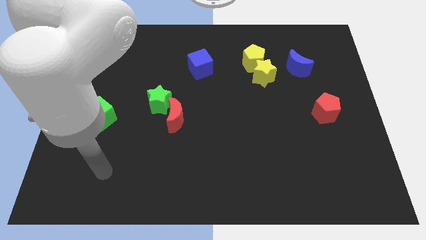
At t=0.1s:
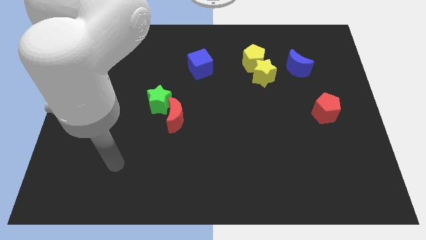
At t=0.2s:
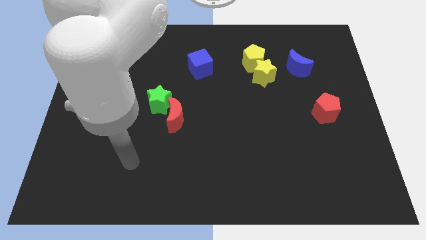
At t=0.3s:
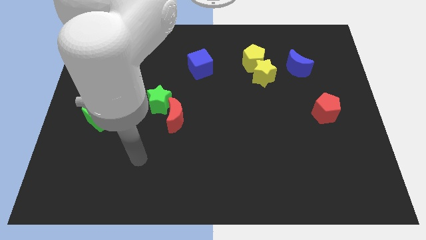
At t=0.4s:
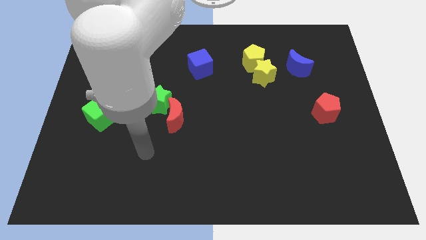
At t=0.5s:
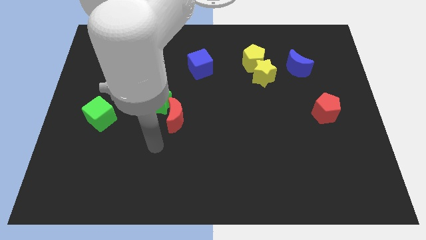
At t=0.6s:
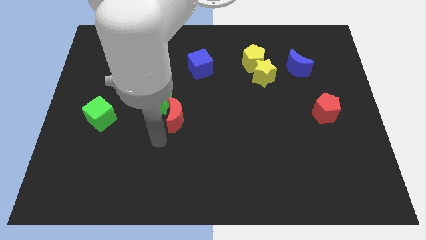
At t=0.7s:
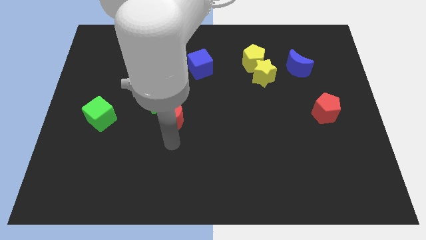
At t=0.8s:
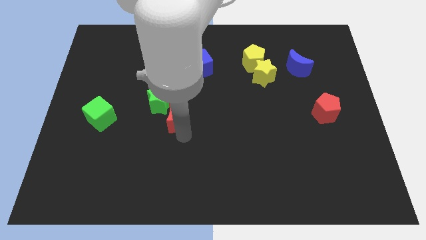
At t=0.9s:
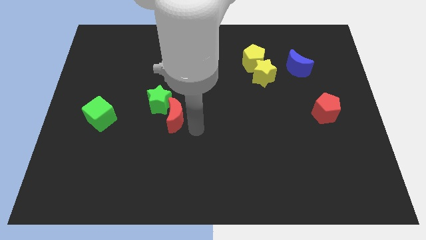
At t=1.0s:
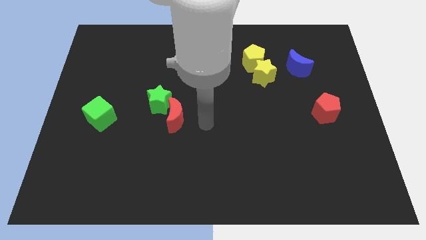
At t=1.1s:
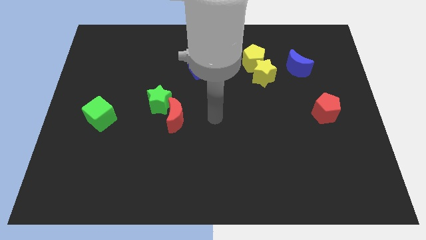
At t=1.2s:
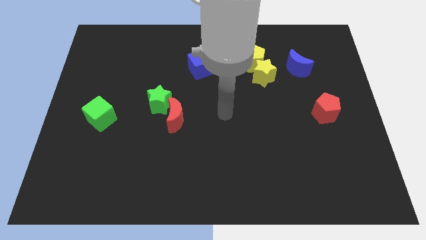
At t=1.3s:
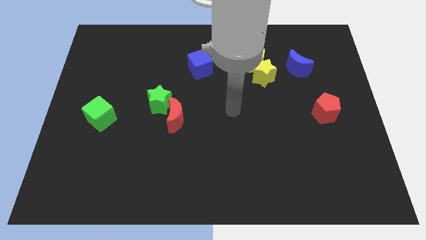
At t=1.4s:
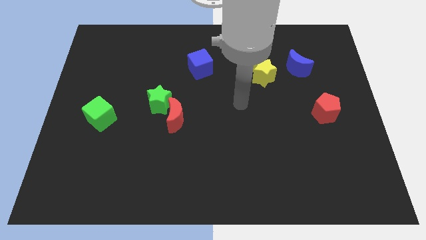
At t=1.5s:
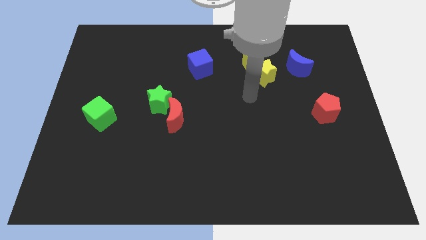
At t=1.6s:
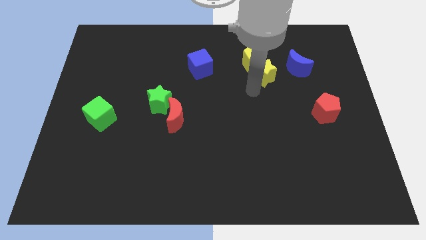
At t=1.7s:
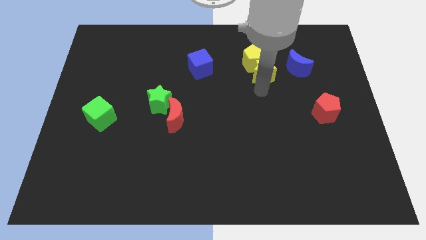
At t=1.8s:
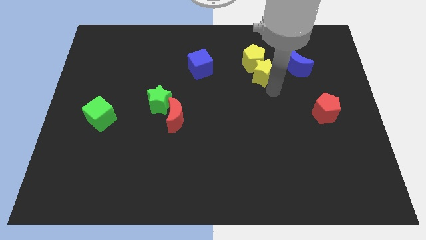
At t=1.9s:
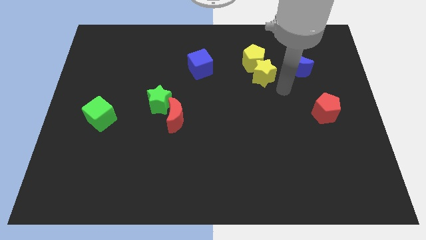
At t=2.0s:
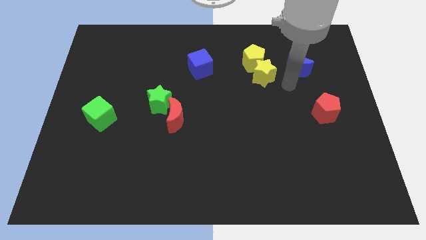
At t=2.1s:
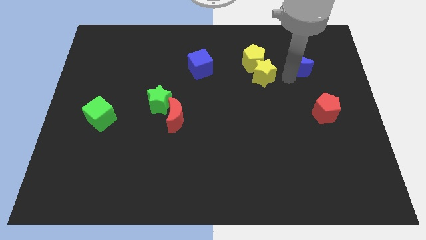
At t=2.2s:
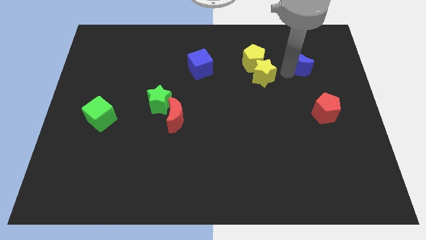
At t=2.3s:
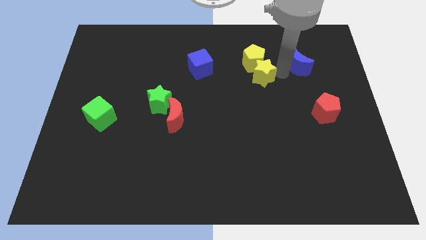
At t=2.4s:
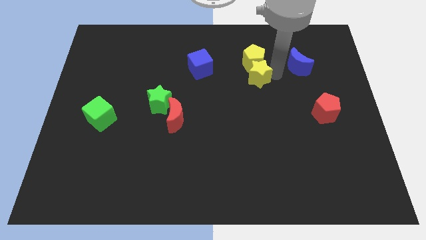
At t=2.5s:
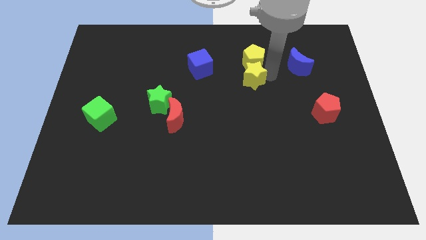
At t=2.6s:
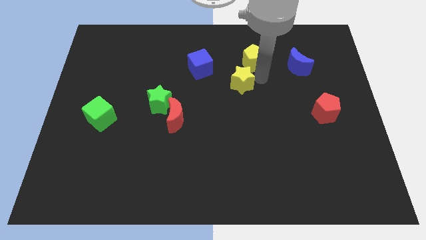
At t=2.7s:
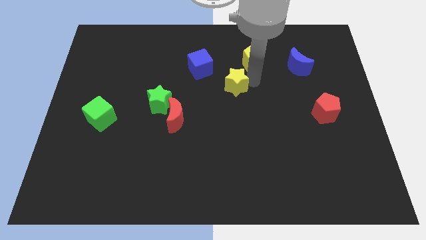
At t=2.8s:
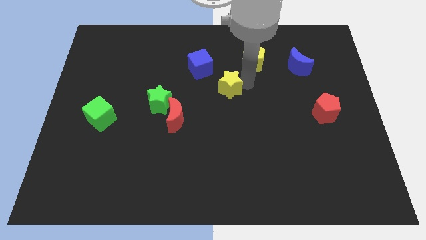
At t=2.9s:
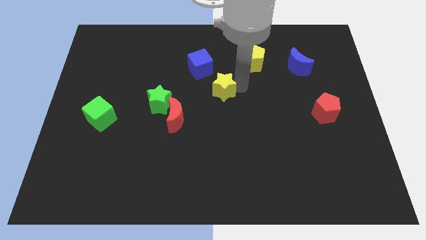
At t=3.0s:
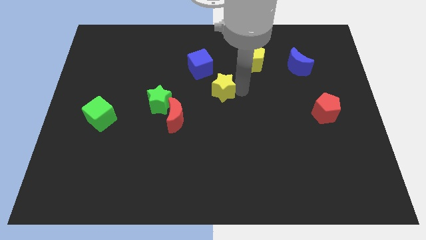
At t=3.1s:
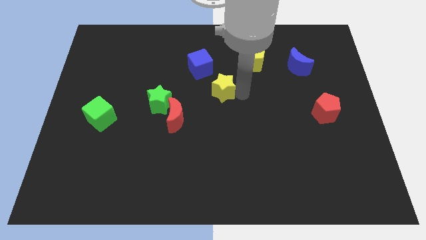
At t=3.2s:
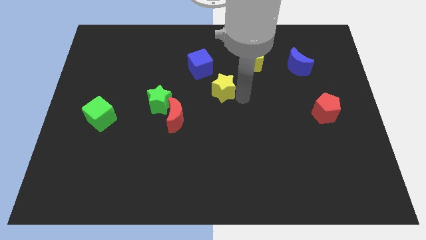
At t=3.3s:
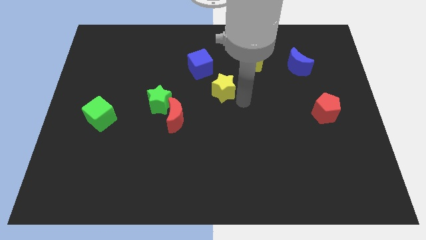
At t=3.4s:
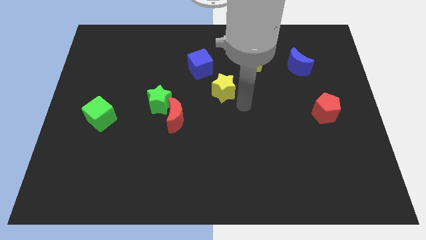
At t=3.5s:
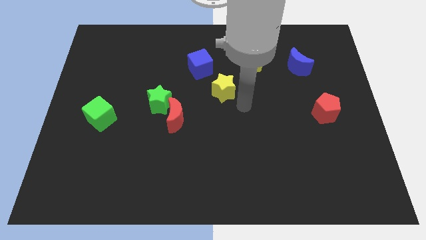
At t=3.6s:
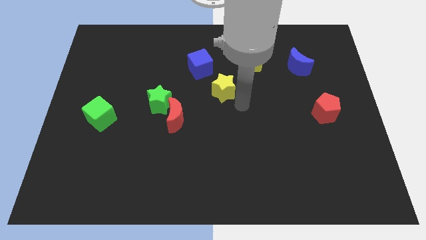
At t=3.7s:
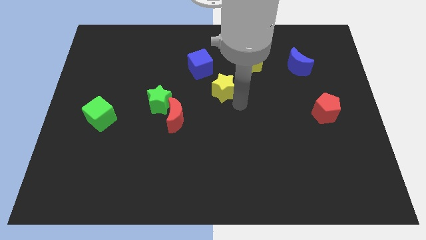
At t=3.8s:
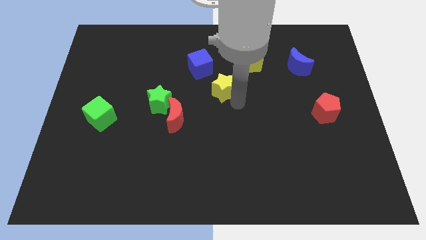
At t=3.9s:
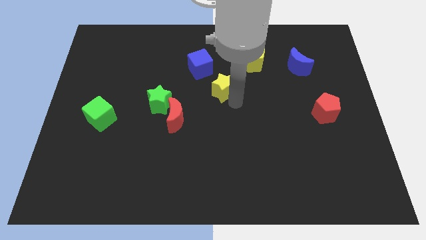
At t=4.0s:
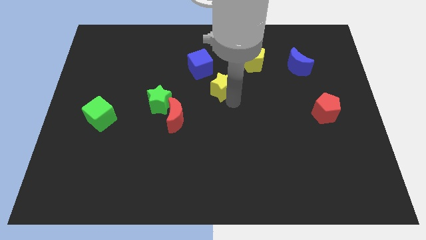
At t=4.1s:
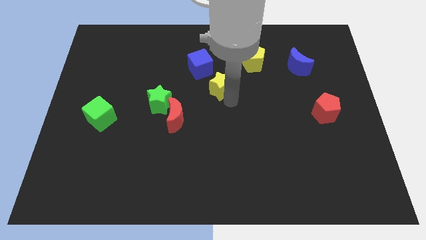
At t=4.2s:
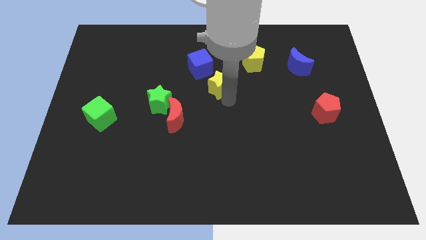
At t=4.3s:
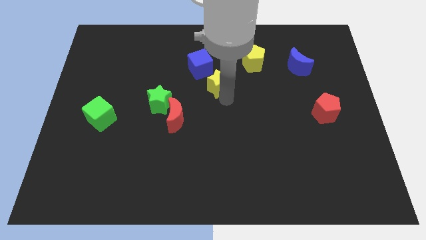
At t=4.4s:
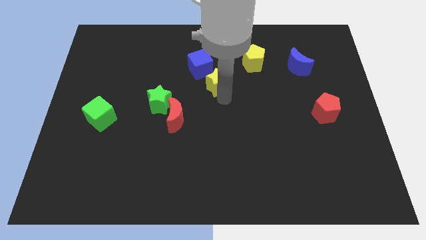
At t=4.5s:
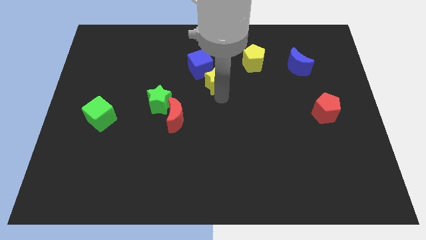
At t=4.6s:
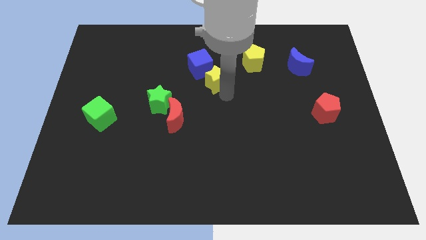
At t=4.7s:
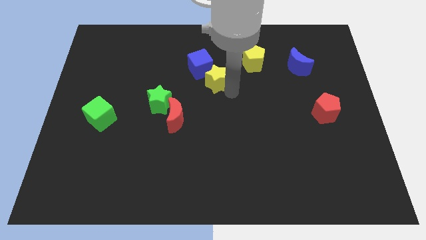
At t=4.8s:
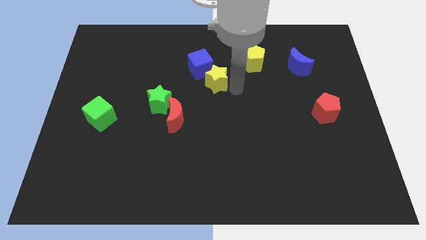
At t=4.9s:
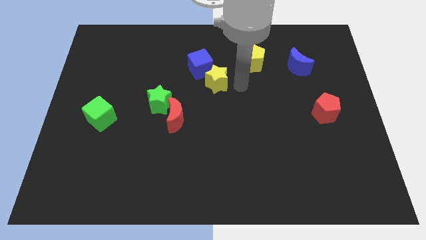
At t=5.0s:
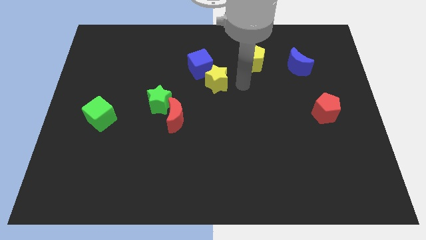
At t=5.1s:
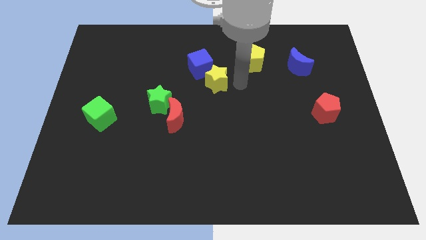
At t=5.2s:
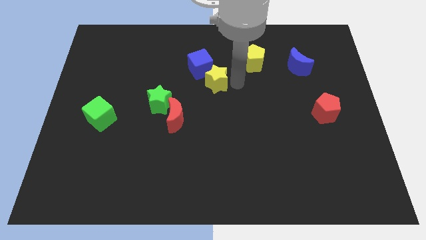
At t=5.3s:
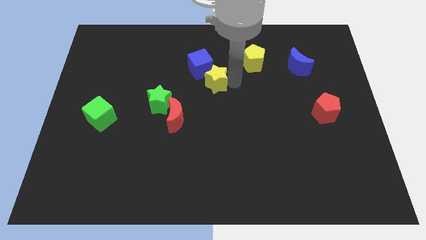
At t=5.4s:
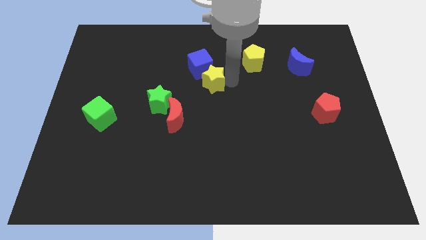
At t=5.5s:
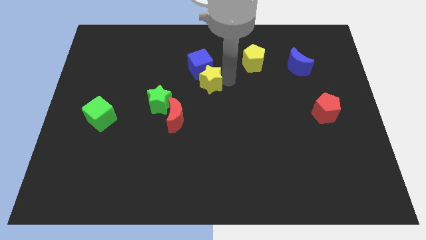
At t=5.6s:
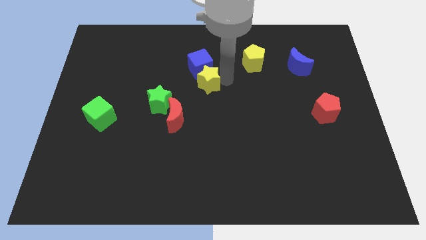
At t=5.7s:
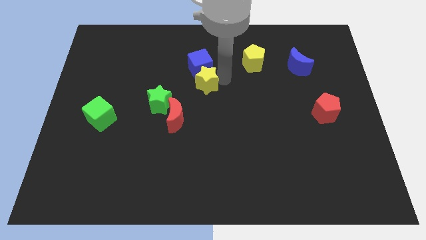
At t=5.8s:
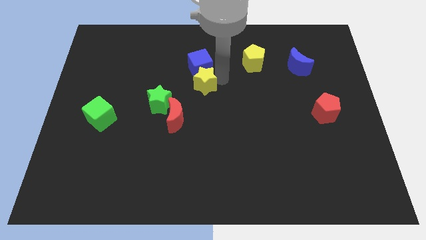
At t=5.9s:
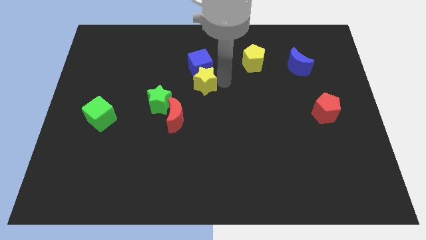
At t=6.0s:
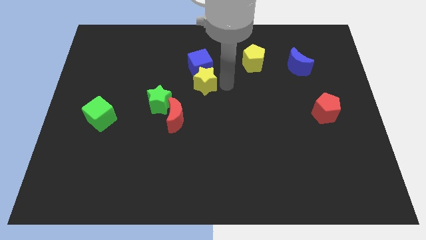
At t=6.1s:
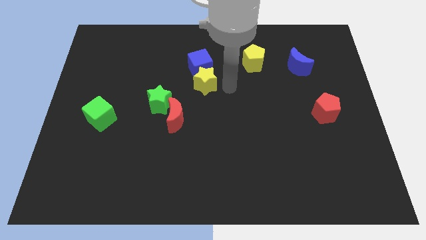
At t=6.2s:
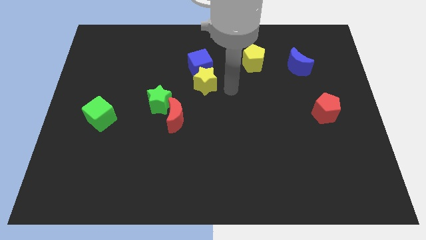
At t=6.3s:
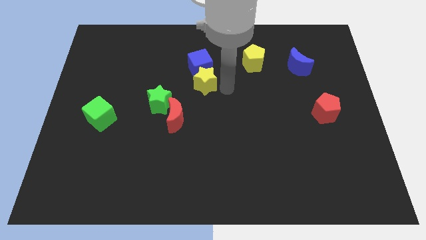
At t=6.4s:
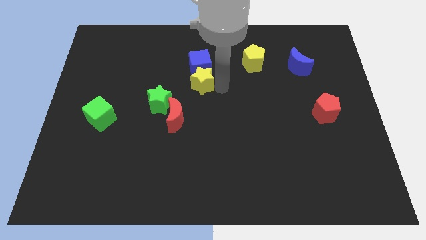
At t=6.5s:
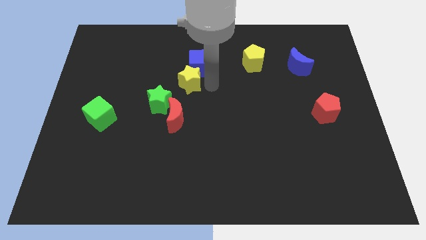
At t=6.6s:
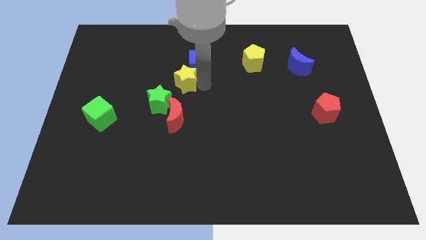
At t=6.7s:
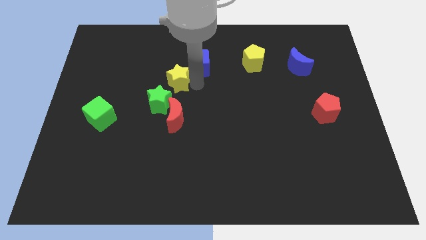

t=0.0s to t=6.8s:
move the yellow star left

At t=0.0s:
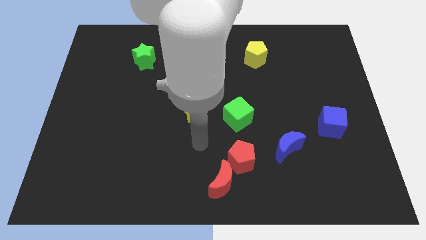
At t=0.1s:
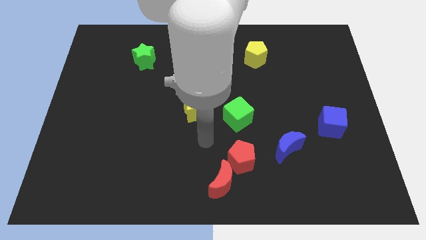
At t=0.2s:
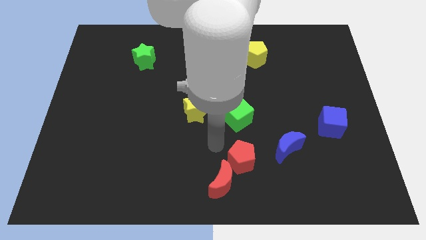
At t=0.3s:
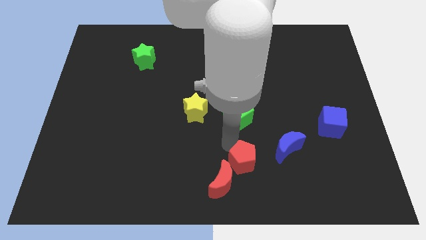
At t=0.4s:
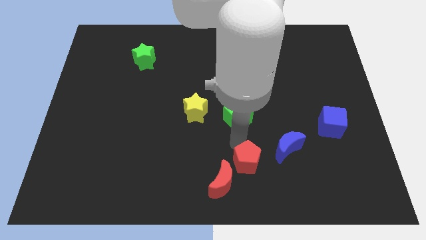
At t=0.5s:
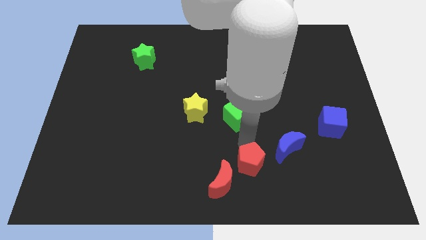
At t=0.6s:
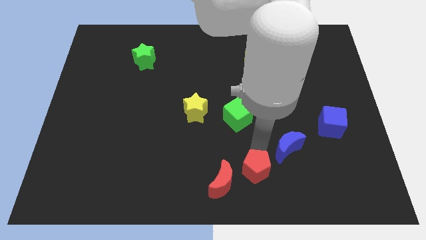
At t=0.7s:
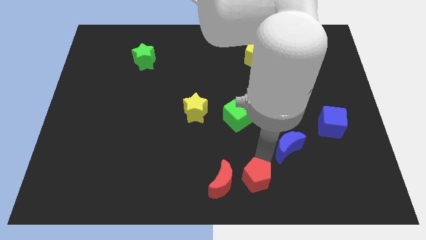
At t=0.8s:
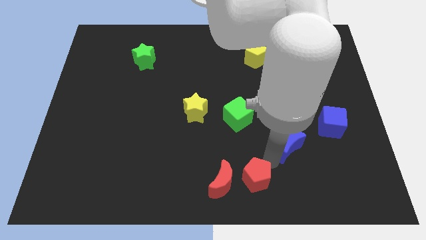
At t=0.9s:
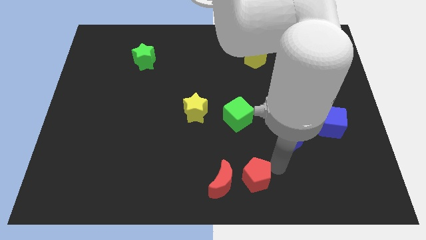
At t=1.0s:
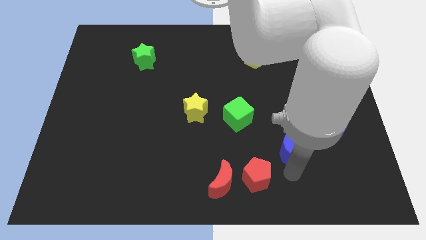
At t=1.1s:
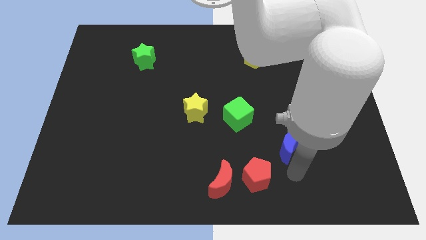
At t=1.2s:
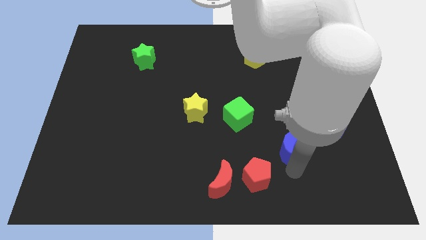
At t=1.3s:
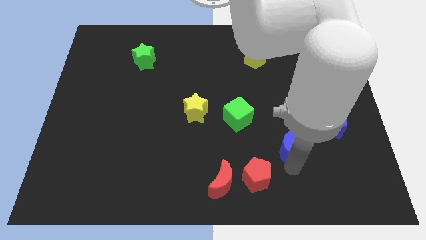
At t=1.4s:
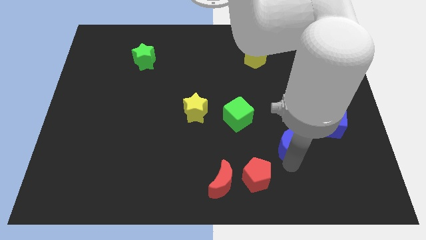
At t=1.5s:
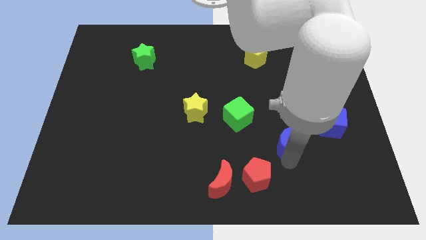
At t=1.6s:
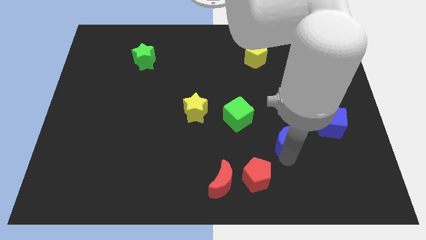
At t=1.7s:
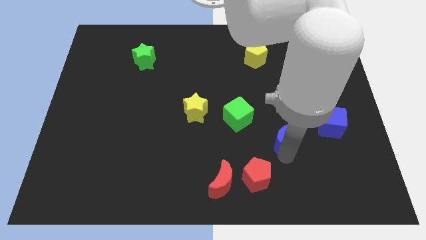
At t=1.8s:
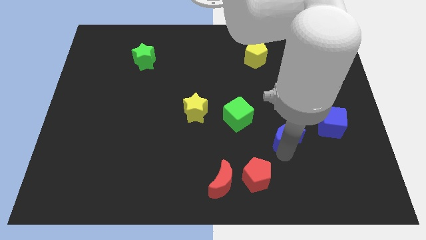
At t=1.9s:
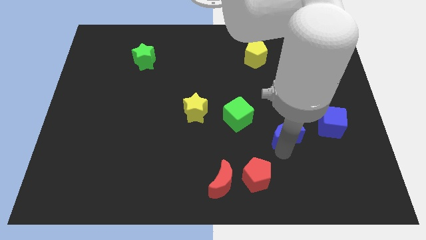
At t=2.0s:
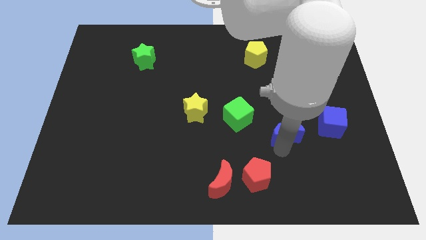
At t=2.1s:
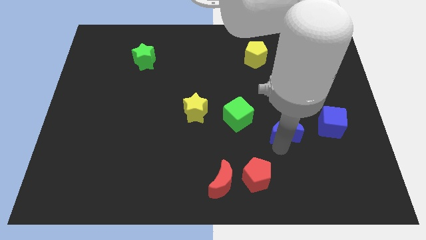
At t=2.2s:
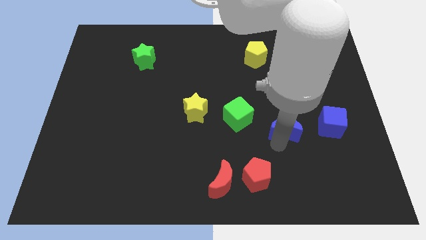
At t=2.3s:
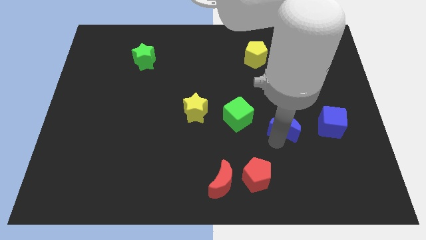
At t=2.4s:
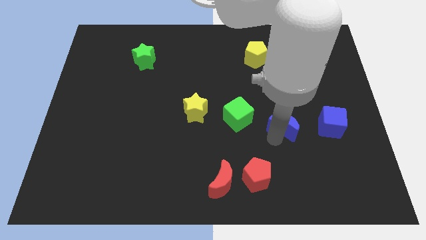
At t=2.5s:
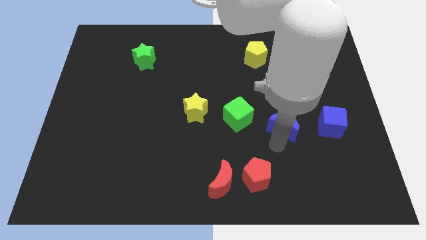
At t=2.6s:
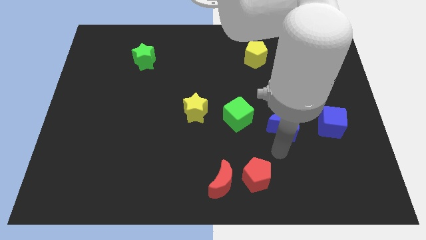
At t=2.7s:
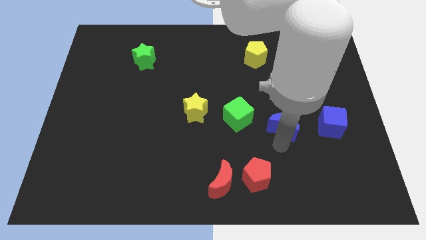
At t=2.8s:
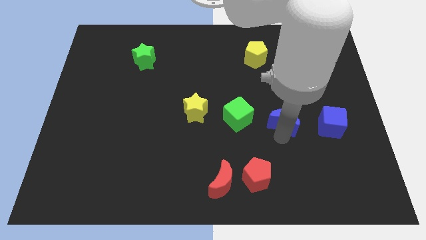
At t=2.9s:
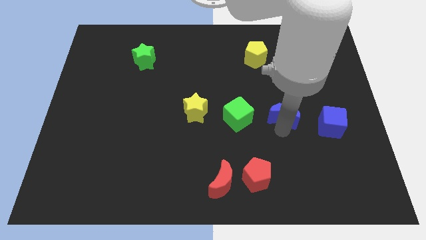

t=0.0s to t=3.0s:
slightly slide the blue moon up
